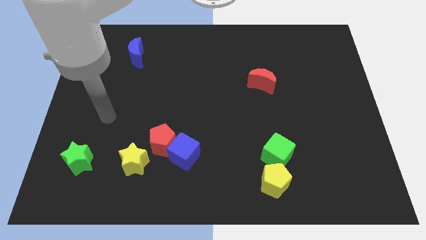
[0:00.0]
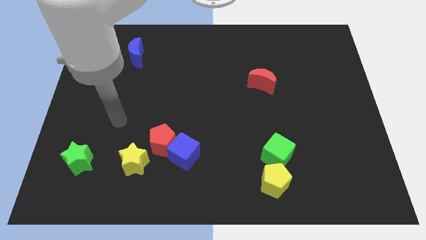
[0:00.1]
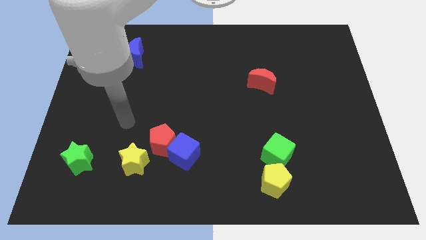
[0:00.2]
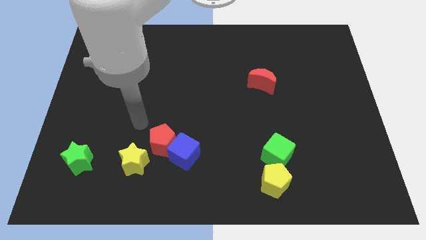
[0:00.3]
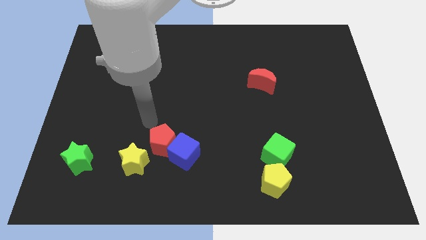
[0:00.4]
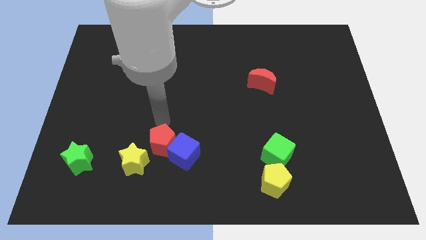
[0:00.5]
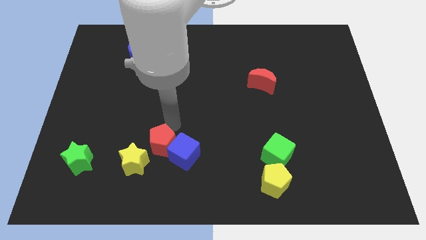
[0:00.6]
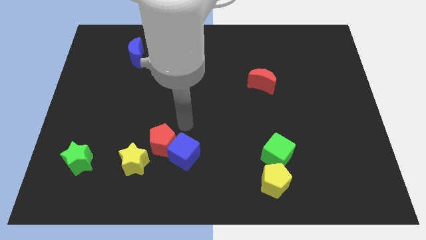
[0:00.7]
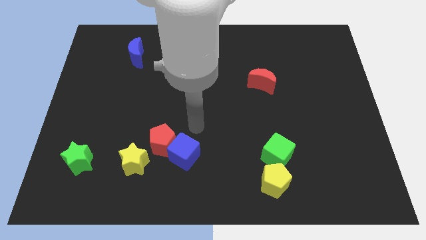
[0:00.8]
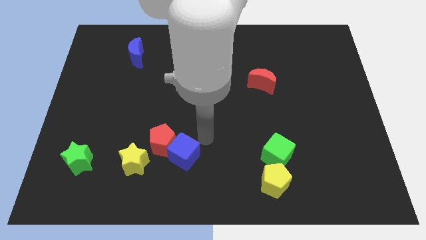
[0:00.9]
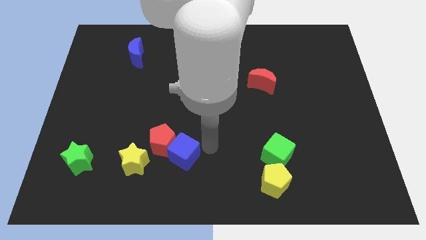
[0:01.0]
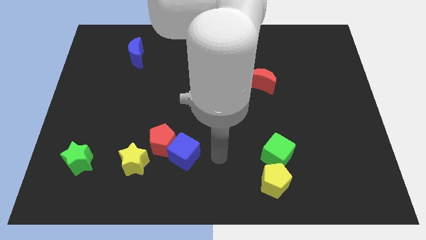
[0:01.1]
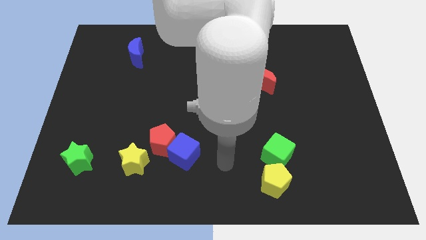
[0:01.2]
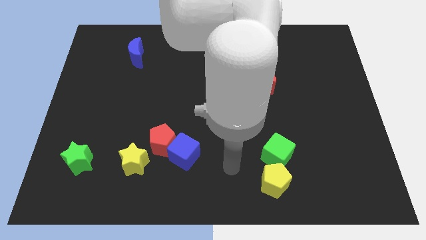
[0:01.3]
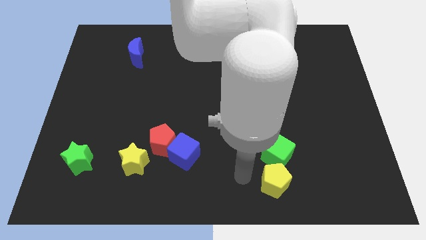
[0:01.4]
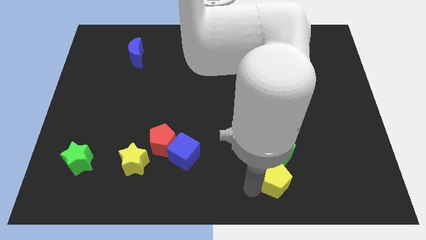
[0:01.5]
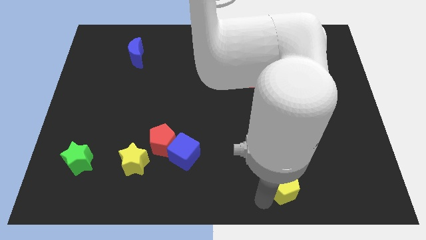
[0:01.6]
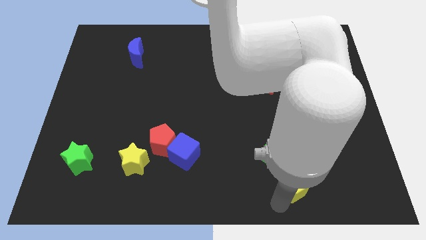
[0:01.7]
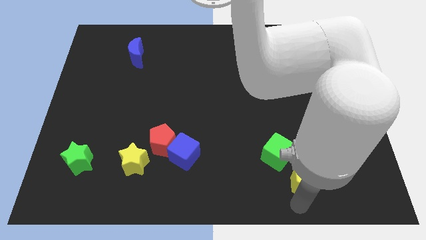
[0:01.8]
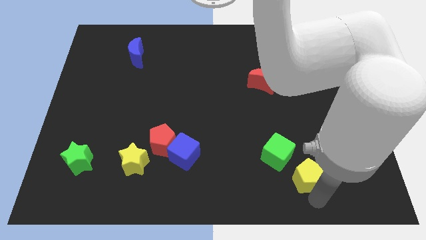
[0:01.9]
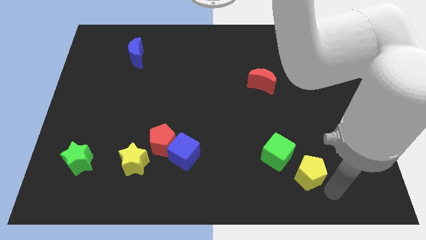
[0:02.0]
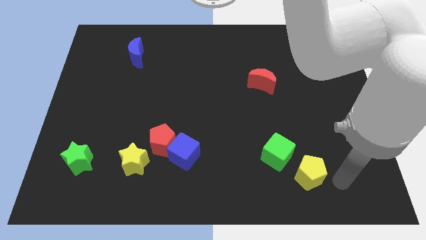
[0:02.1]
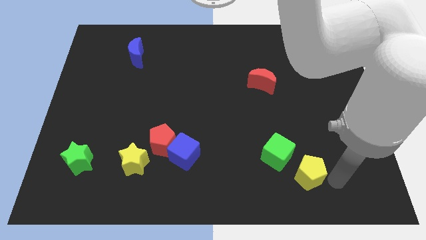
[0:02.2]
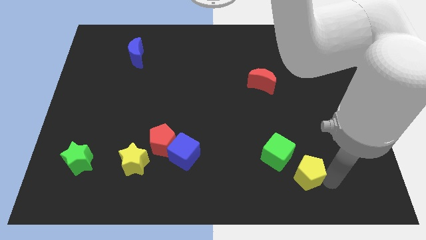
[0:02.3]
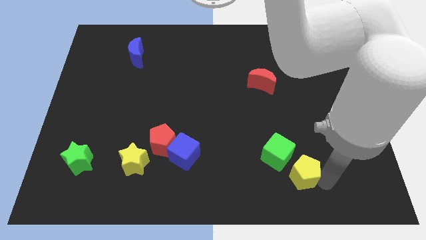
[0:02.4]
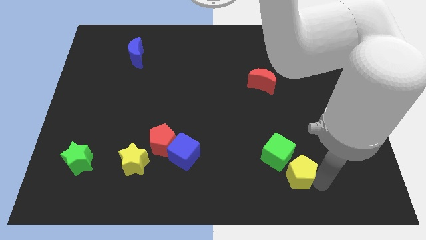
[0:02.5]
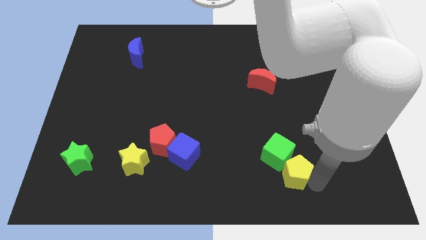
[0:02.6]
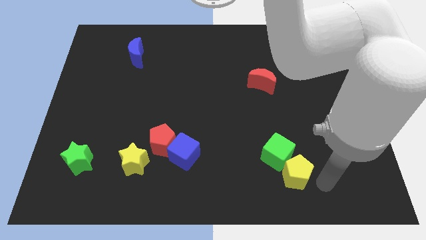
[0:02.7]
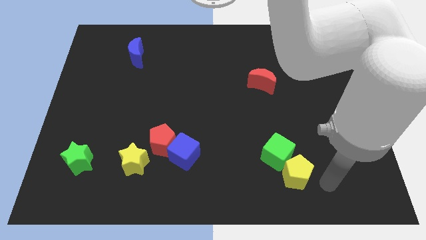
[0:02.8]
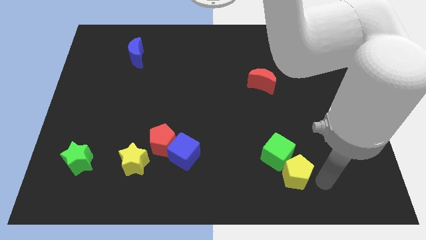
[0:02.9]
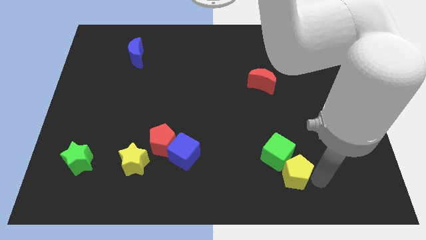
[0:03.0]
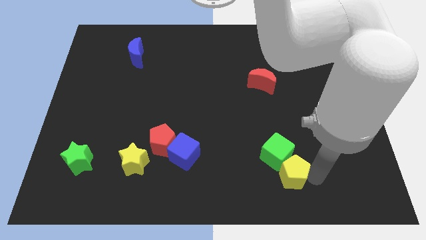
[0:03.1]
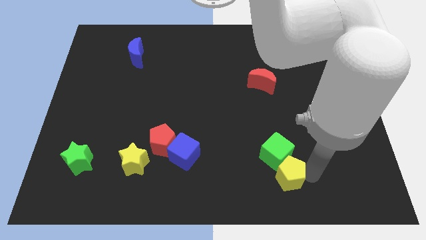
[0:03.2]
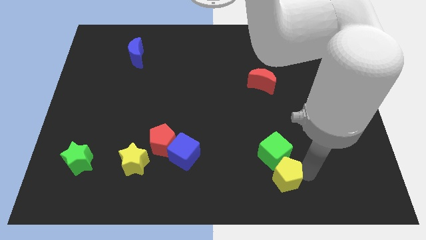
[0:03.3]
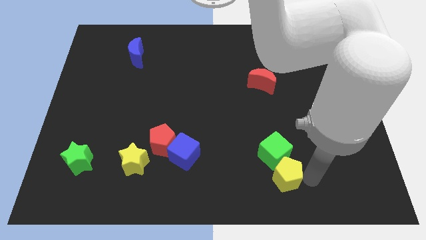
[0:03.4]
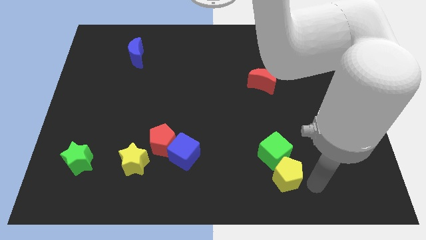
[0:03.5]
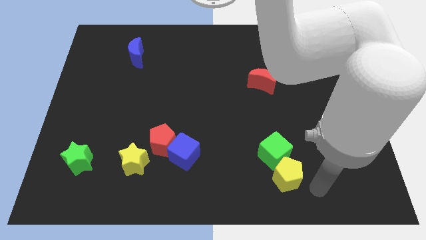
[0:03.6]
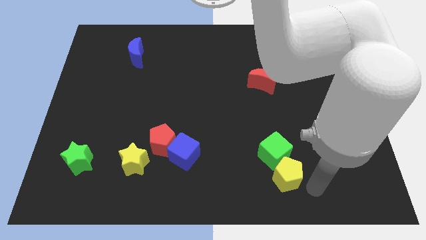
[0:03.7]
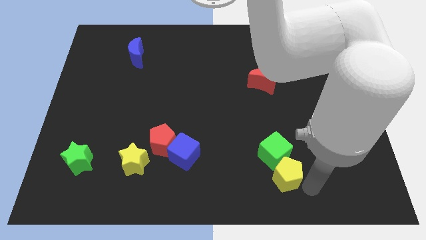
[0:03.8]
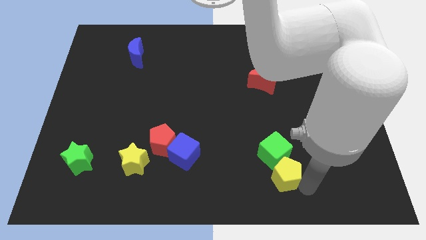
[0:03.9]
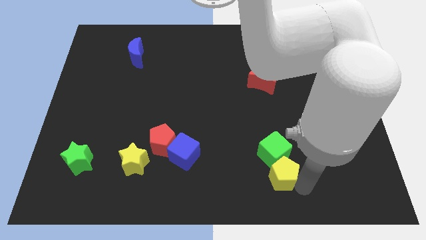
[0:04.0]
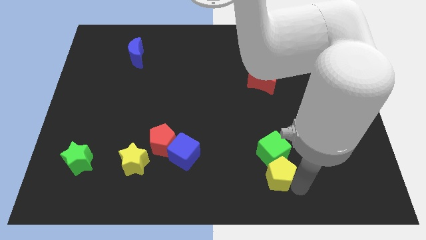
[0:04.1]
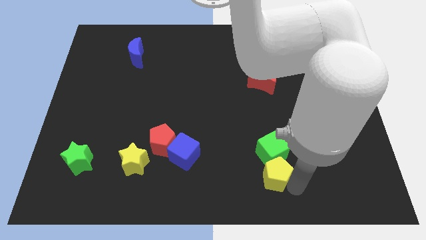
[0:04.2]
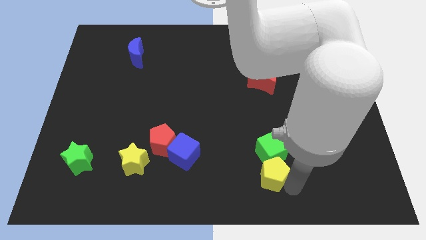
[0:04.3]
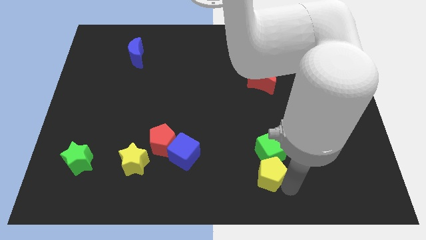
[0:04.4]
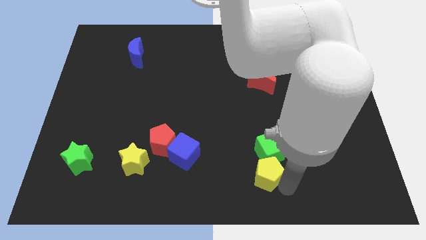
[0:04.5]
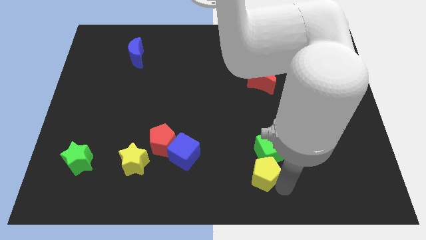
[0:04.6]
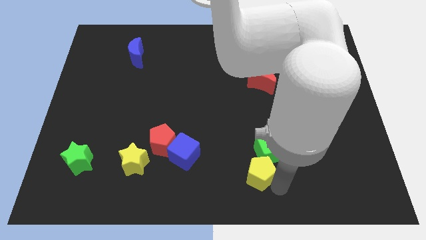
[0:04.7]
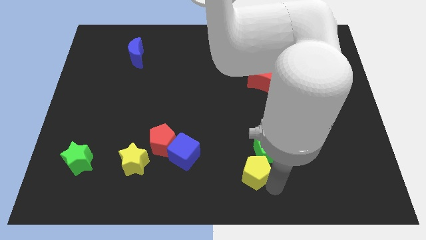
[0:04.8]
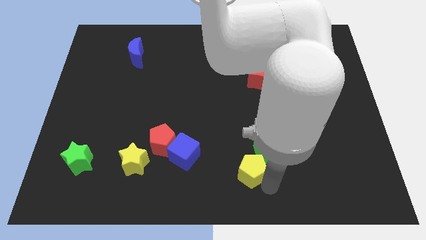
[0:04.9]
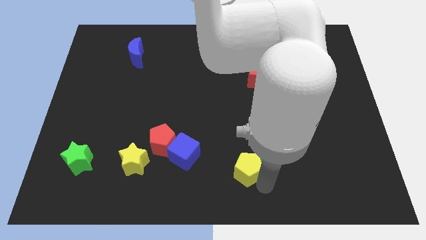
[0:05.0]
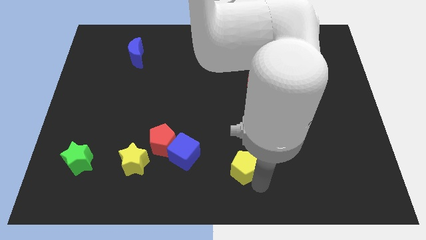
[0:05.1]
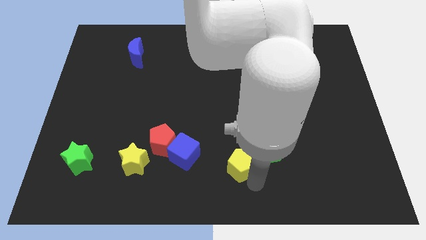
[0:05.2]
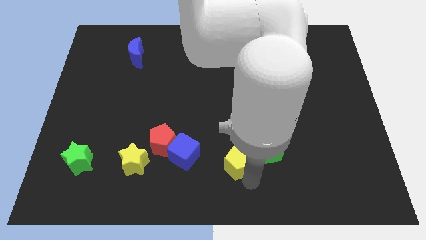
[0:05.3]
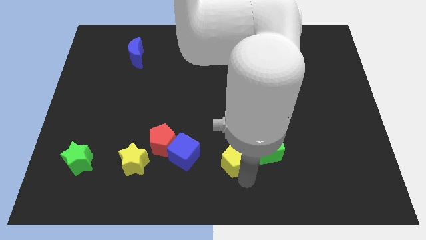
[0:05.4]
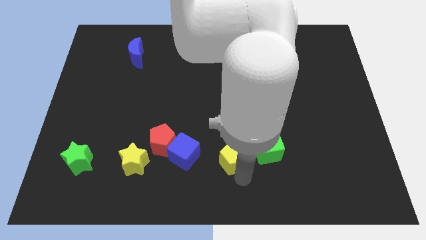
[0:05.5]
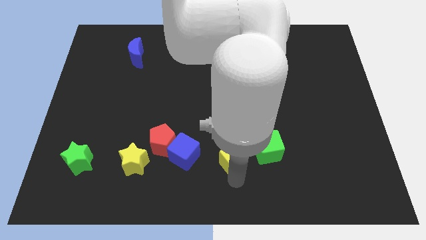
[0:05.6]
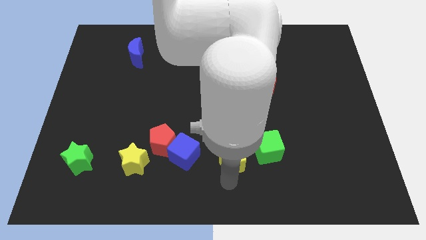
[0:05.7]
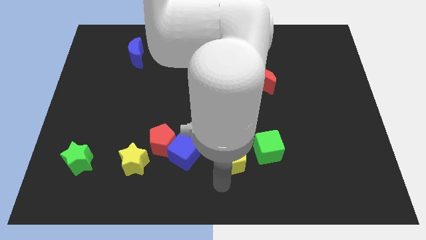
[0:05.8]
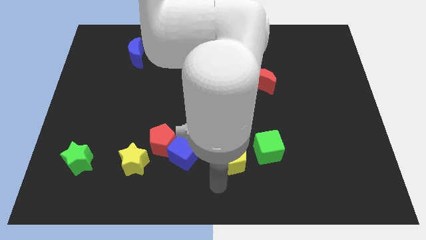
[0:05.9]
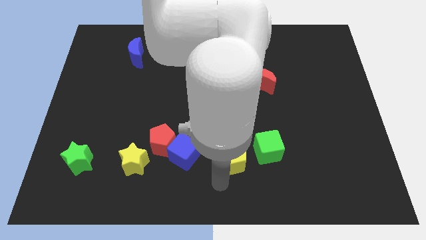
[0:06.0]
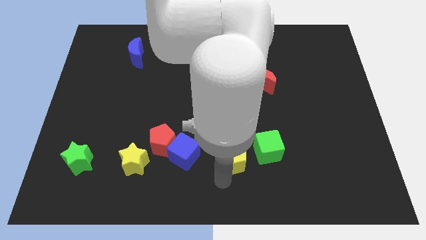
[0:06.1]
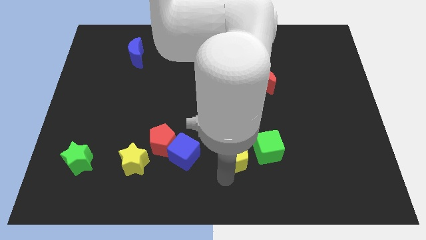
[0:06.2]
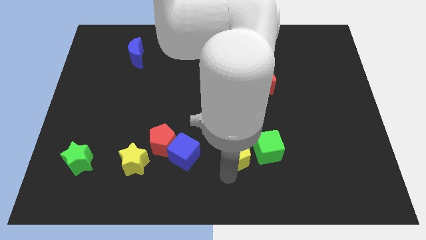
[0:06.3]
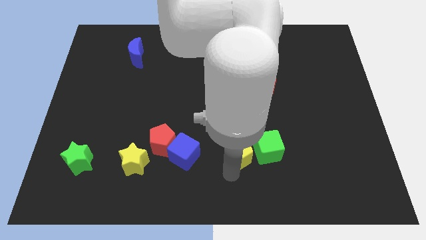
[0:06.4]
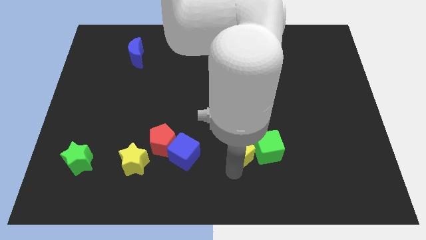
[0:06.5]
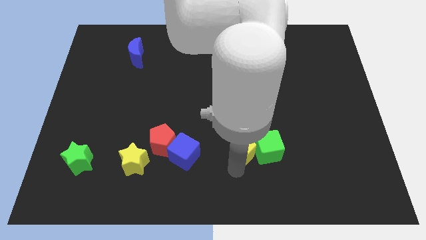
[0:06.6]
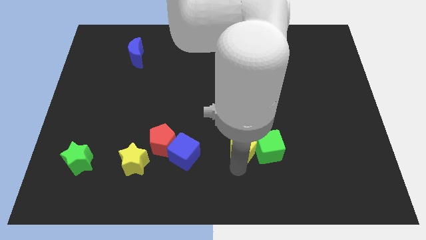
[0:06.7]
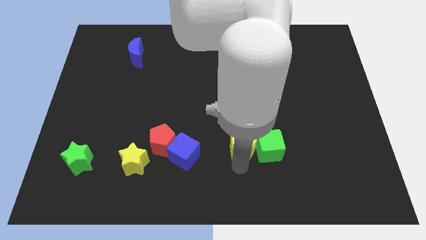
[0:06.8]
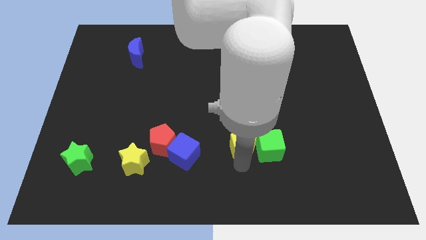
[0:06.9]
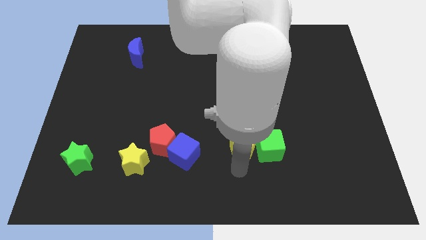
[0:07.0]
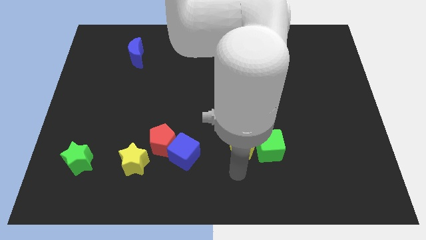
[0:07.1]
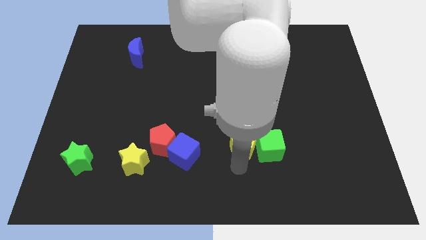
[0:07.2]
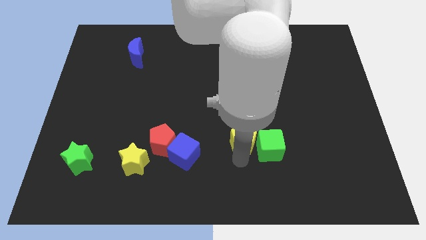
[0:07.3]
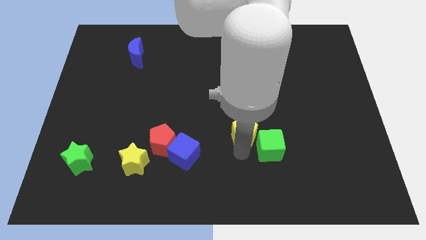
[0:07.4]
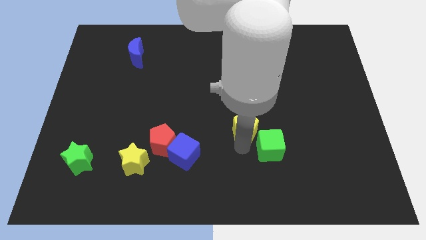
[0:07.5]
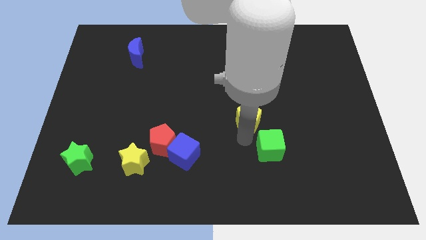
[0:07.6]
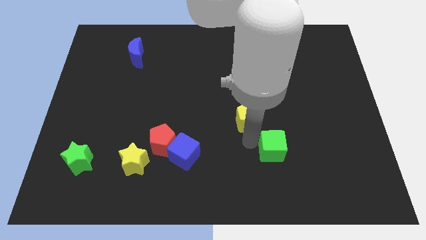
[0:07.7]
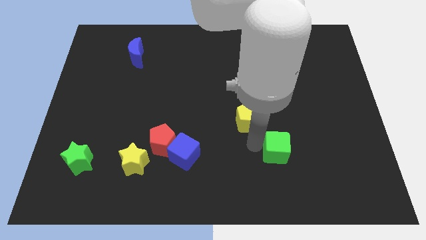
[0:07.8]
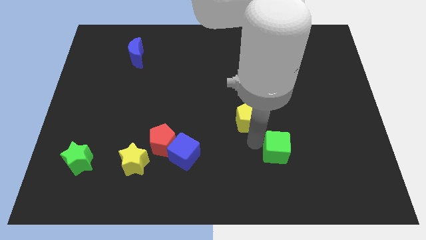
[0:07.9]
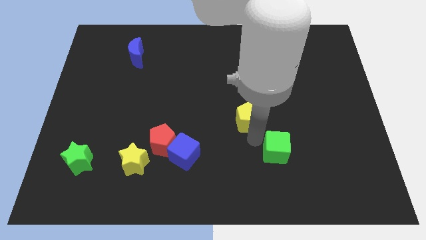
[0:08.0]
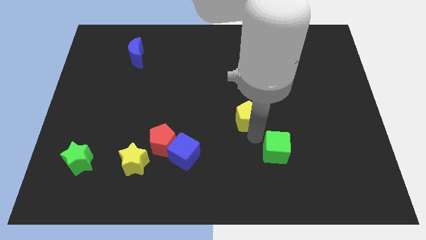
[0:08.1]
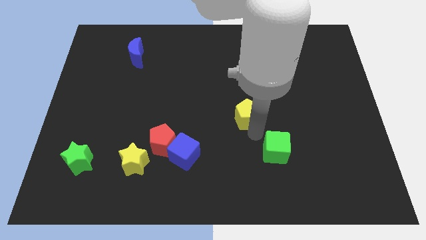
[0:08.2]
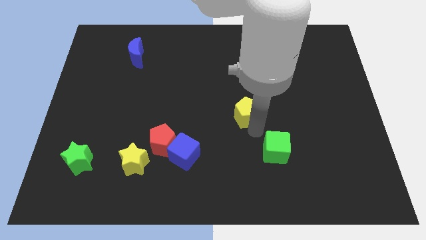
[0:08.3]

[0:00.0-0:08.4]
put the yellow pentagon to the bottom left side of the red moon
